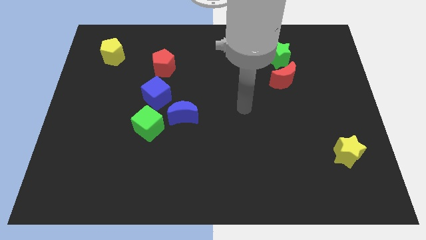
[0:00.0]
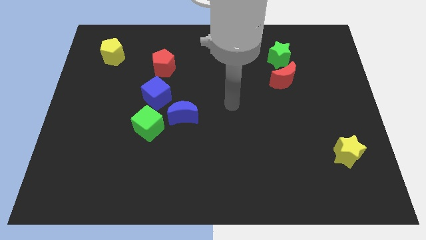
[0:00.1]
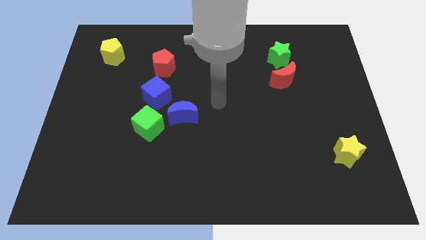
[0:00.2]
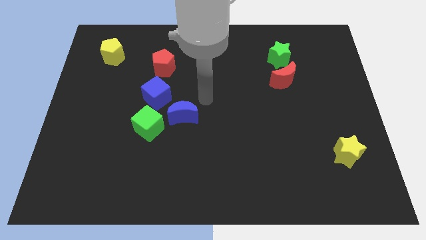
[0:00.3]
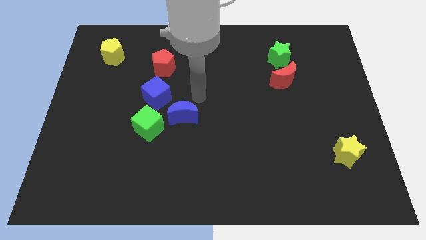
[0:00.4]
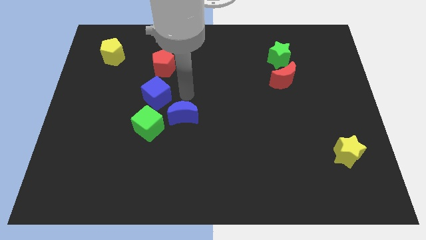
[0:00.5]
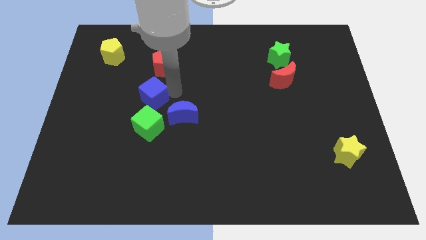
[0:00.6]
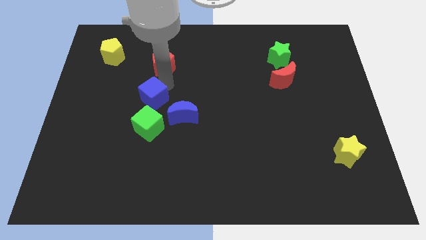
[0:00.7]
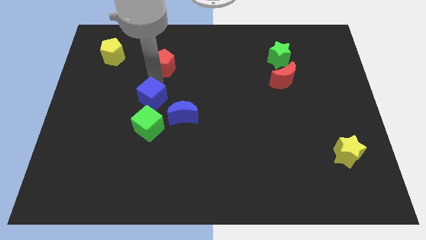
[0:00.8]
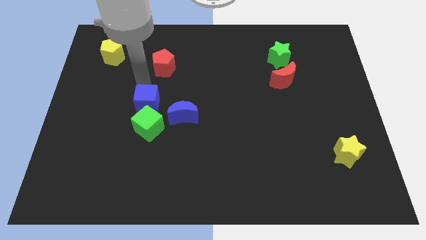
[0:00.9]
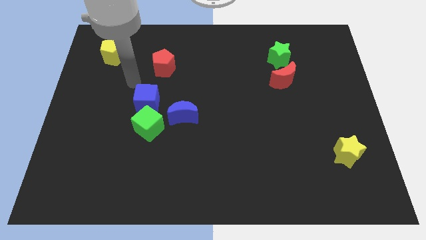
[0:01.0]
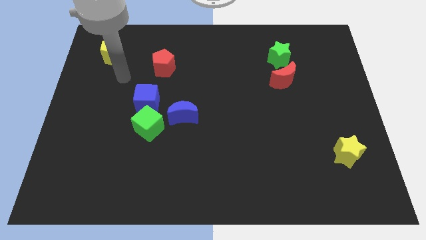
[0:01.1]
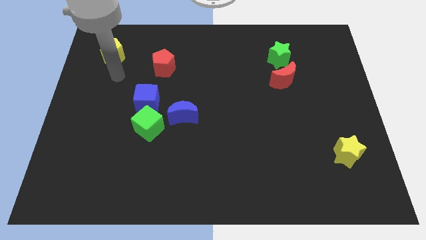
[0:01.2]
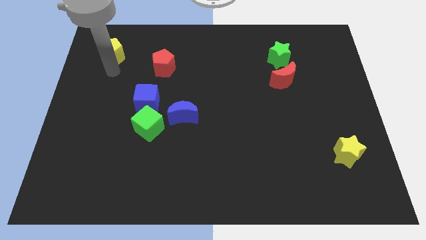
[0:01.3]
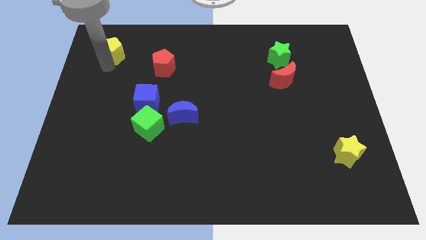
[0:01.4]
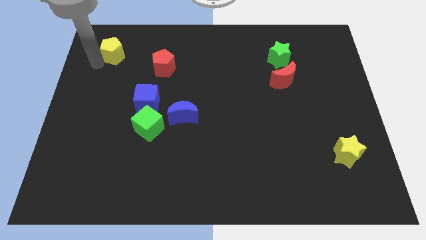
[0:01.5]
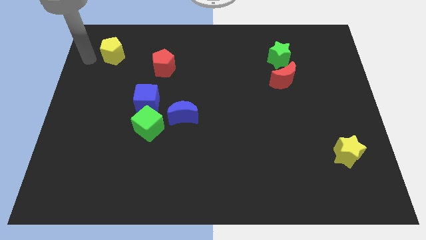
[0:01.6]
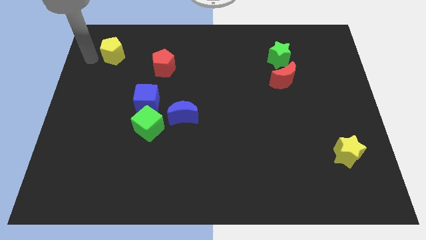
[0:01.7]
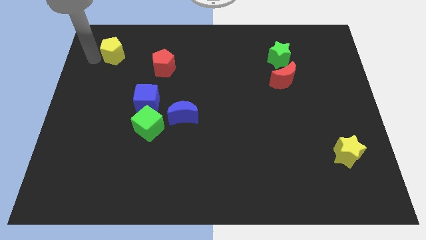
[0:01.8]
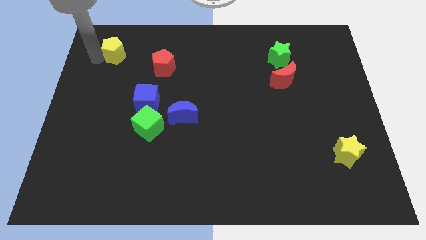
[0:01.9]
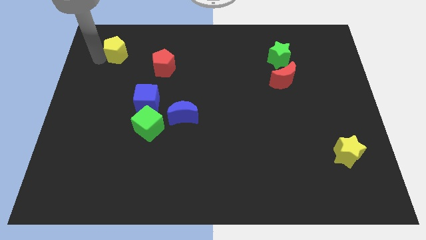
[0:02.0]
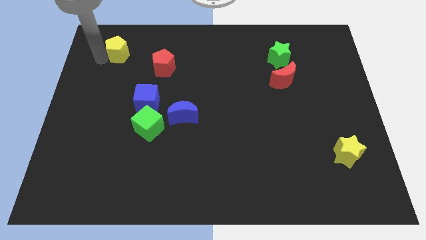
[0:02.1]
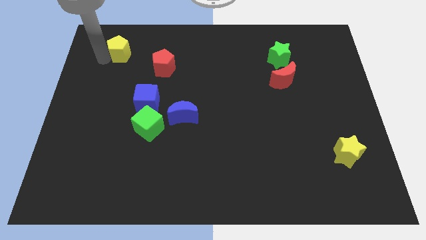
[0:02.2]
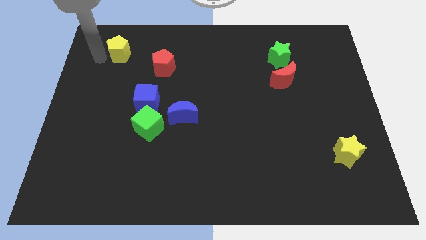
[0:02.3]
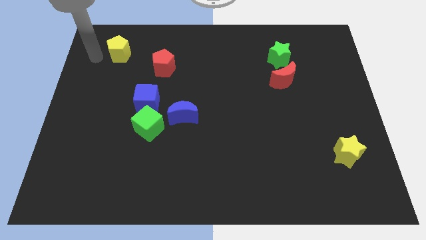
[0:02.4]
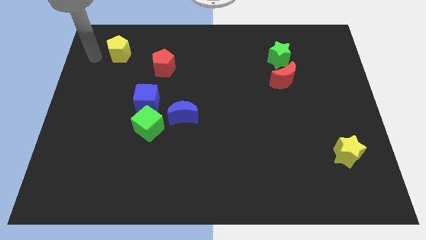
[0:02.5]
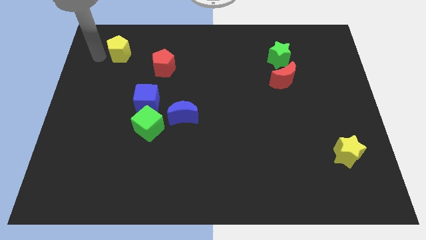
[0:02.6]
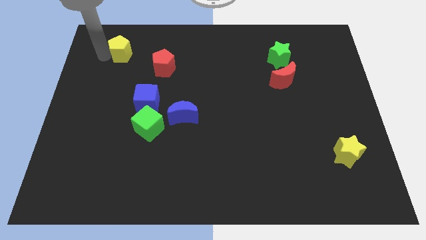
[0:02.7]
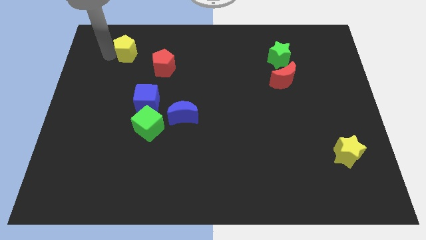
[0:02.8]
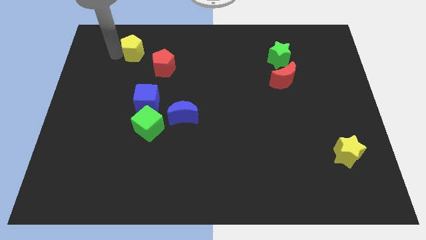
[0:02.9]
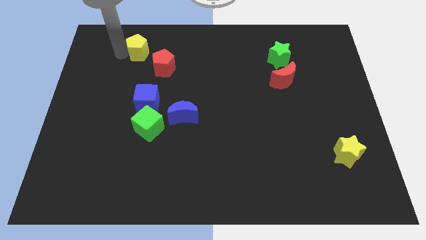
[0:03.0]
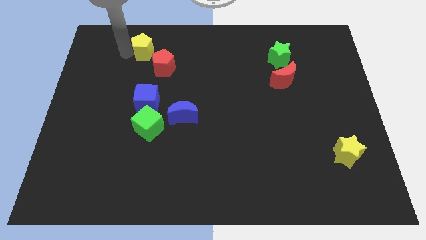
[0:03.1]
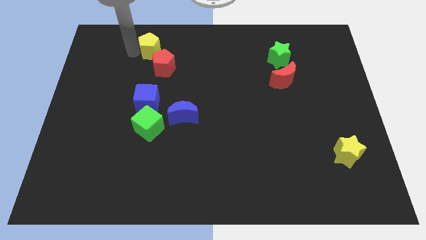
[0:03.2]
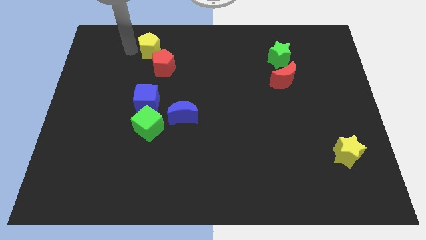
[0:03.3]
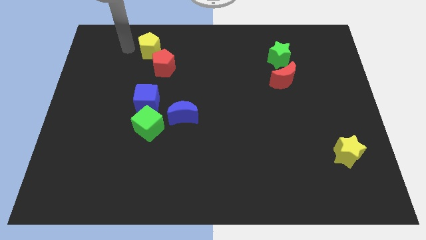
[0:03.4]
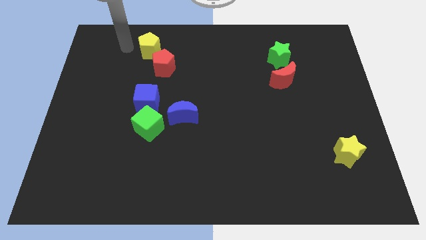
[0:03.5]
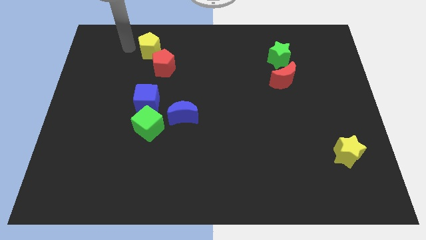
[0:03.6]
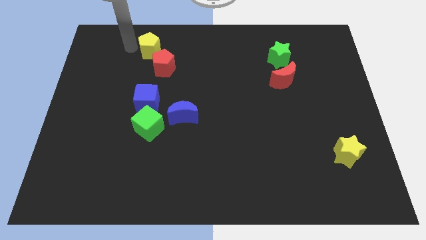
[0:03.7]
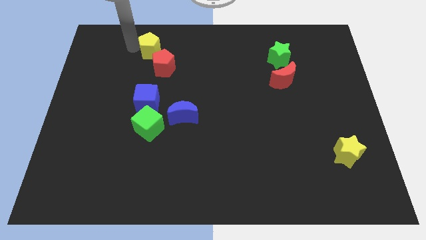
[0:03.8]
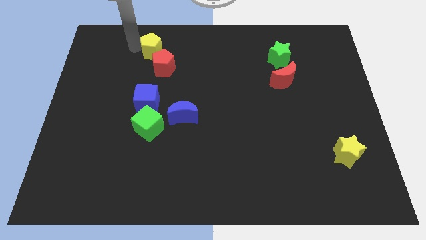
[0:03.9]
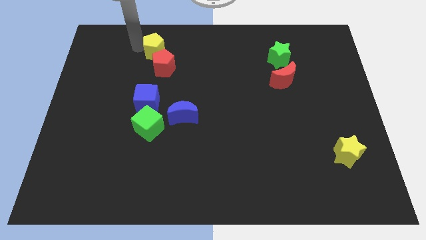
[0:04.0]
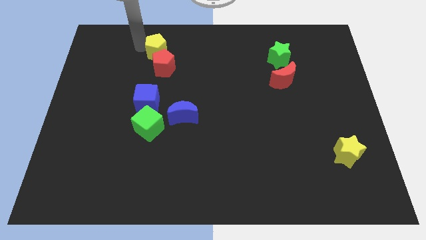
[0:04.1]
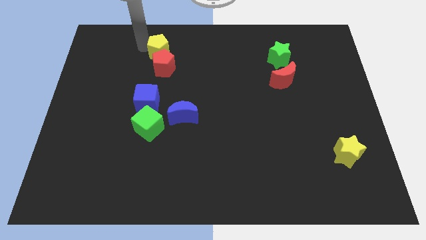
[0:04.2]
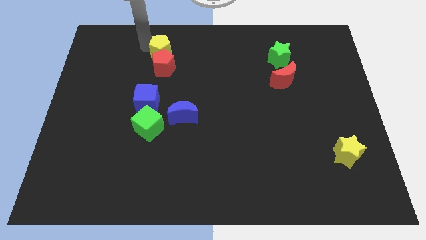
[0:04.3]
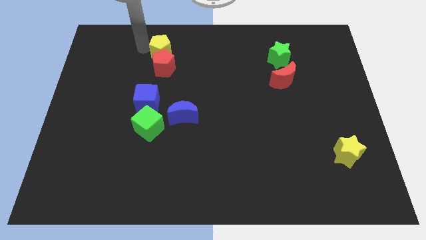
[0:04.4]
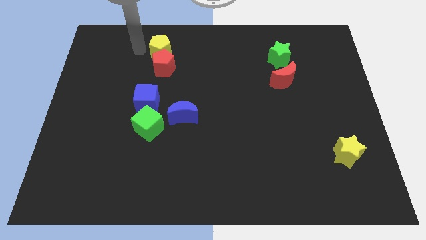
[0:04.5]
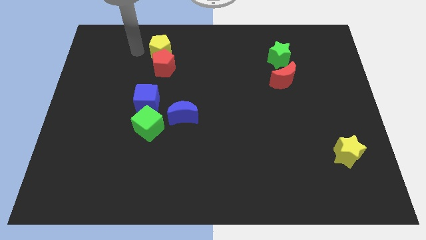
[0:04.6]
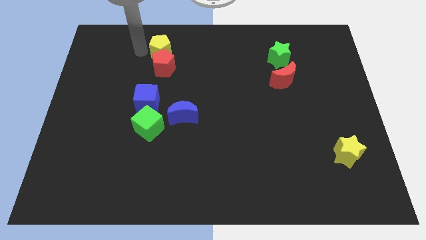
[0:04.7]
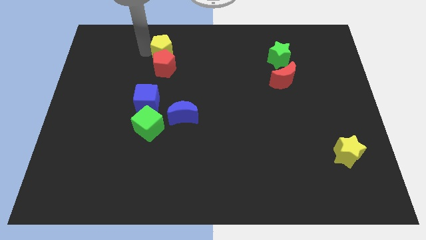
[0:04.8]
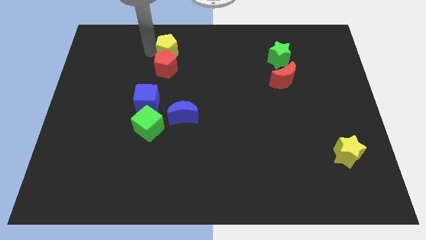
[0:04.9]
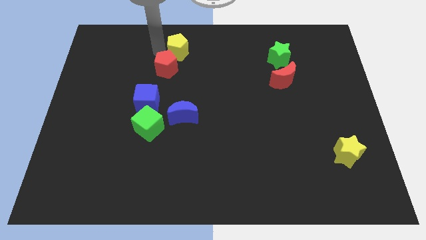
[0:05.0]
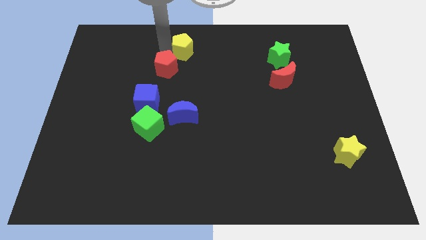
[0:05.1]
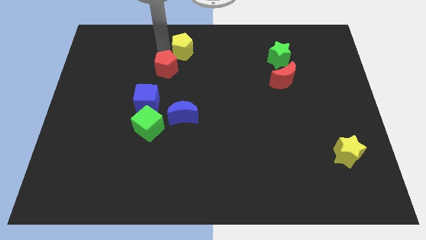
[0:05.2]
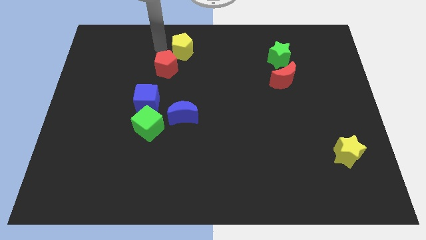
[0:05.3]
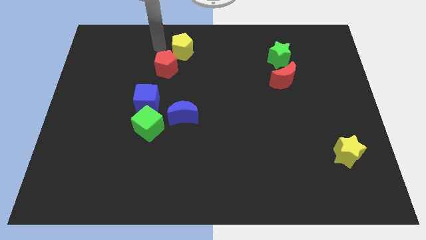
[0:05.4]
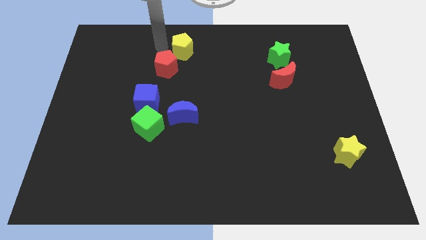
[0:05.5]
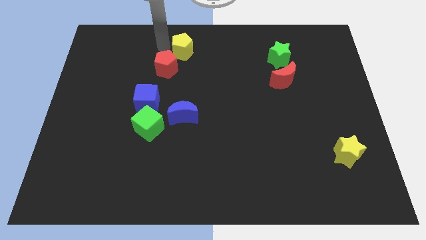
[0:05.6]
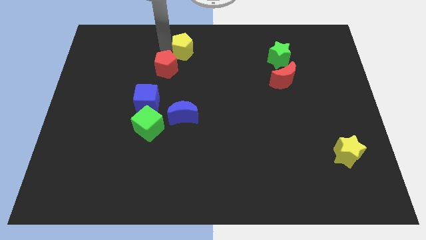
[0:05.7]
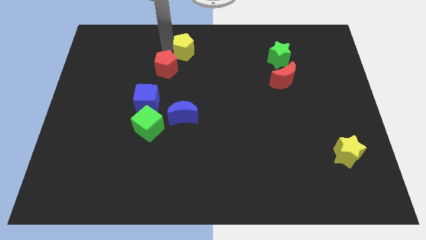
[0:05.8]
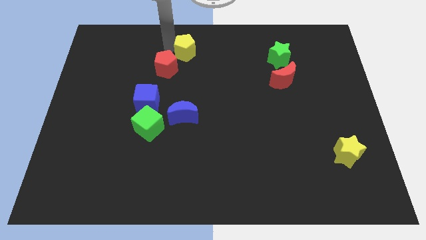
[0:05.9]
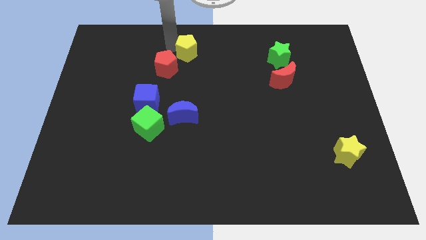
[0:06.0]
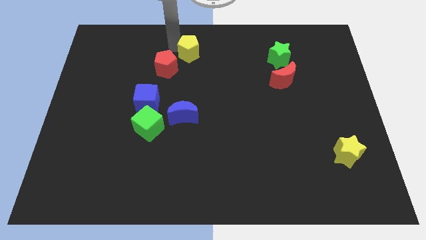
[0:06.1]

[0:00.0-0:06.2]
move the yellow pentagon right

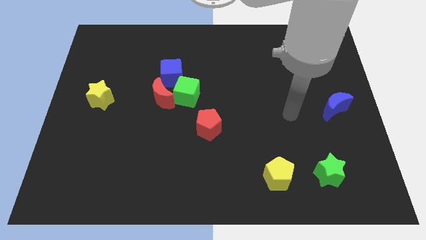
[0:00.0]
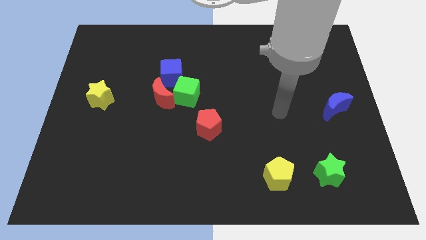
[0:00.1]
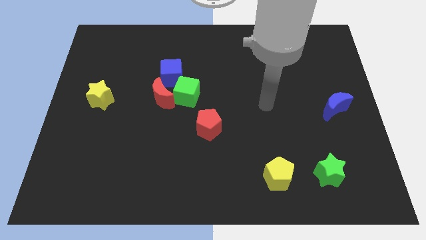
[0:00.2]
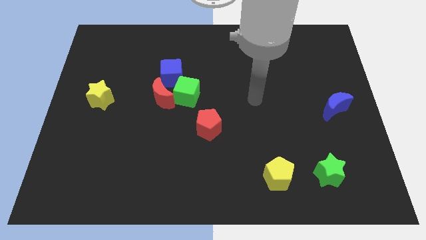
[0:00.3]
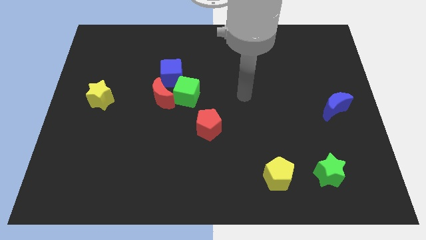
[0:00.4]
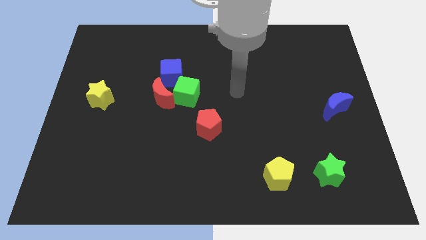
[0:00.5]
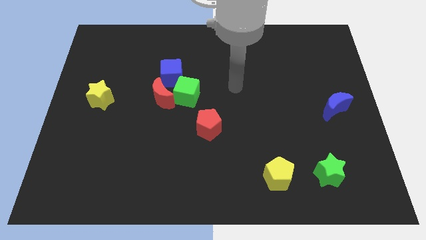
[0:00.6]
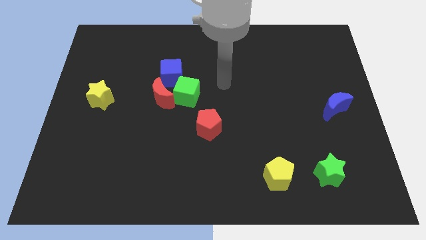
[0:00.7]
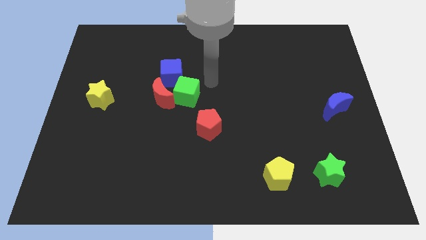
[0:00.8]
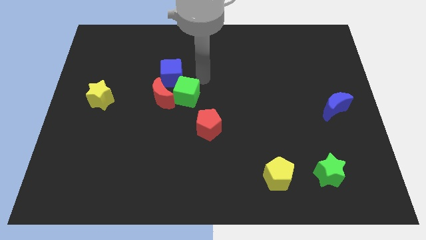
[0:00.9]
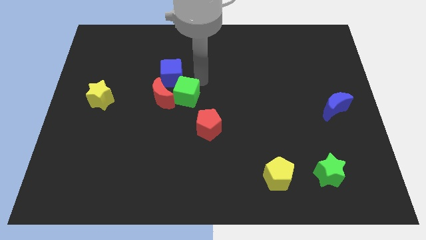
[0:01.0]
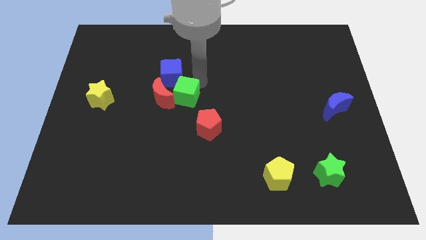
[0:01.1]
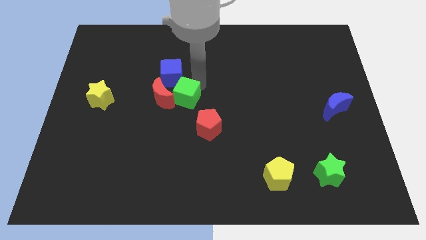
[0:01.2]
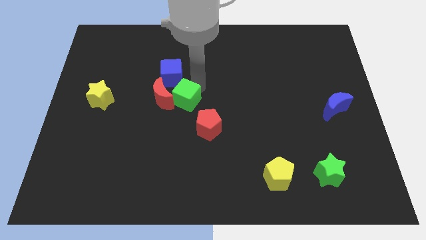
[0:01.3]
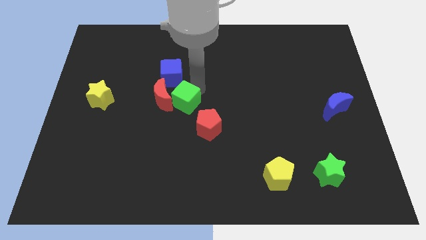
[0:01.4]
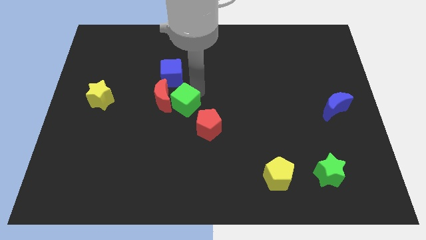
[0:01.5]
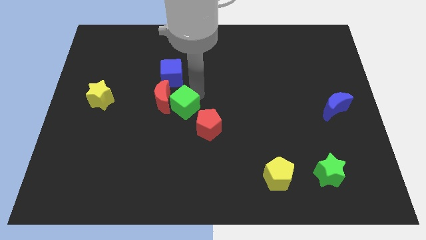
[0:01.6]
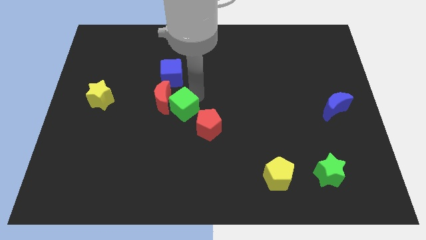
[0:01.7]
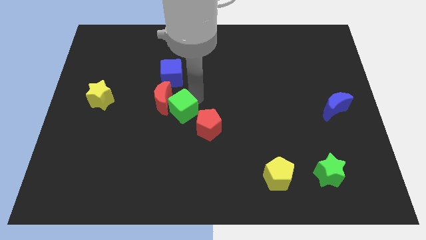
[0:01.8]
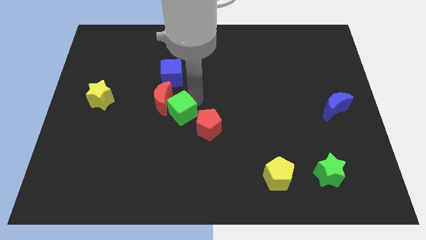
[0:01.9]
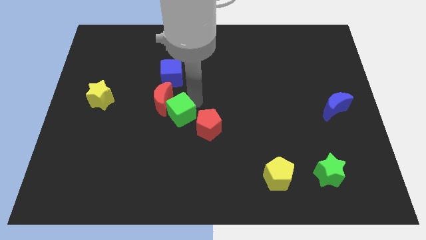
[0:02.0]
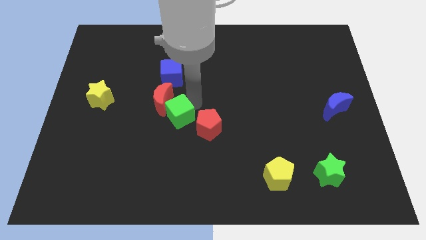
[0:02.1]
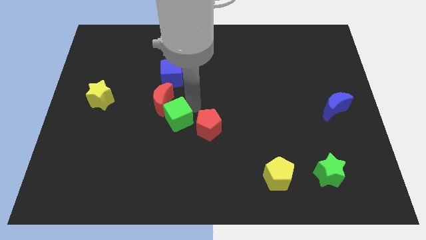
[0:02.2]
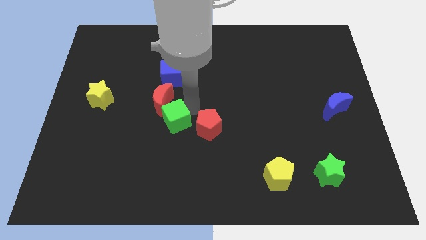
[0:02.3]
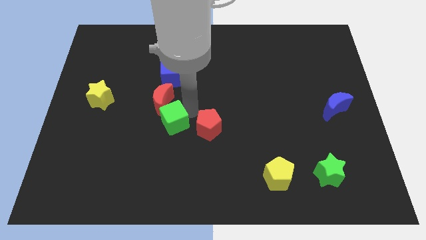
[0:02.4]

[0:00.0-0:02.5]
move the green cube downwards and left diagonally slightly
